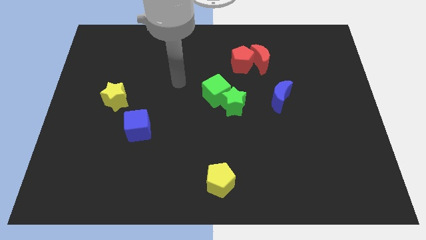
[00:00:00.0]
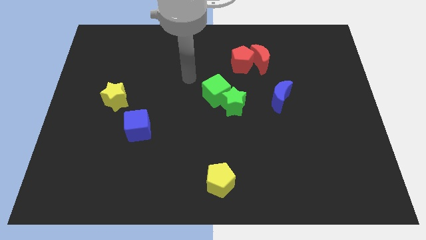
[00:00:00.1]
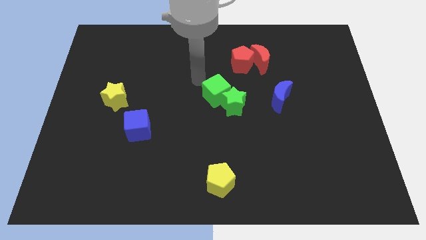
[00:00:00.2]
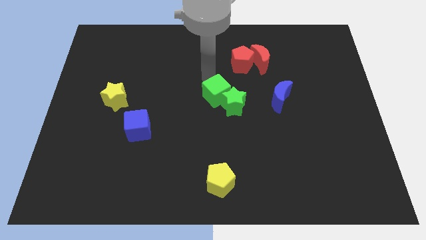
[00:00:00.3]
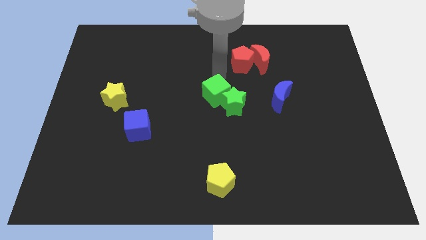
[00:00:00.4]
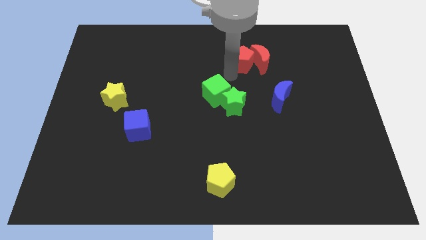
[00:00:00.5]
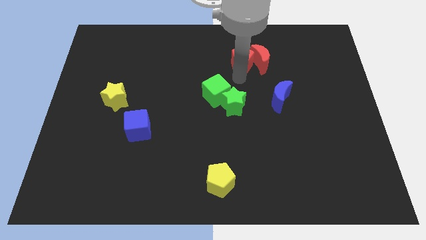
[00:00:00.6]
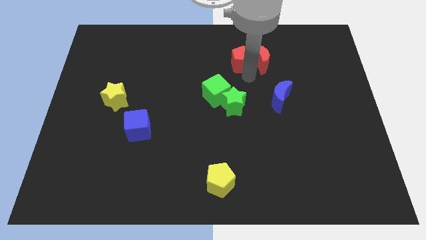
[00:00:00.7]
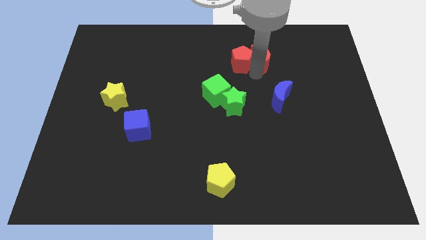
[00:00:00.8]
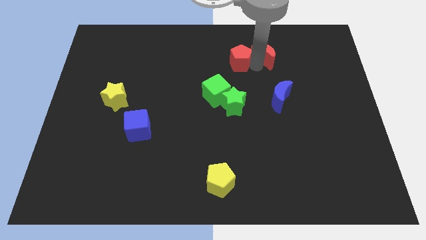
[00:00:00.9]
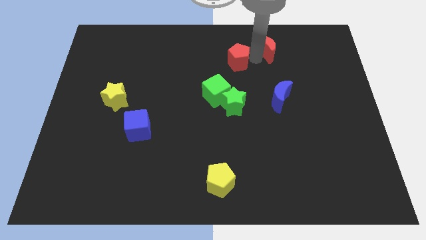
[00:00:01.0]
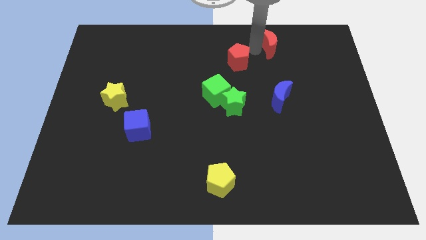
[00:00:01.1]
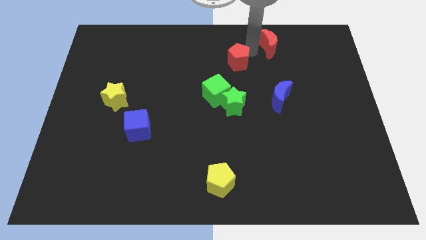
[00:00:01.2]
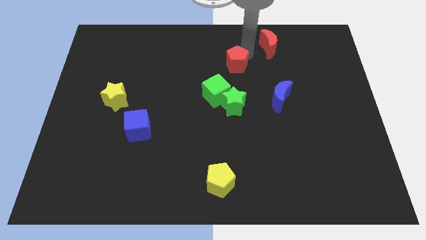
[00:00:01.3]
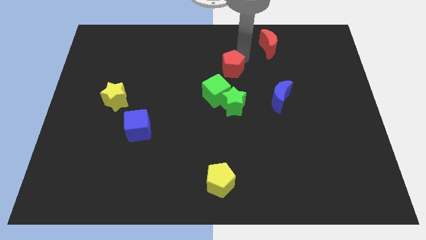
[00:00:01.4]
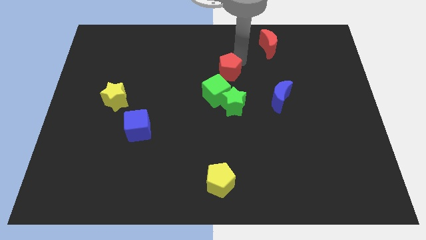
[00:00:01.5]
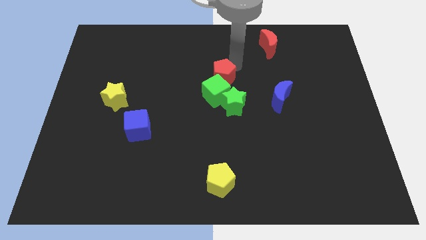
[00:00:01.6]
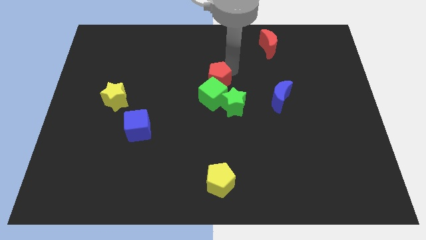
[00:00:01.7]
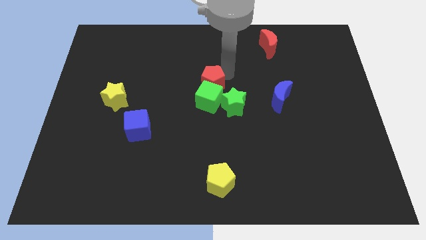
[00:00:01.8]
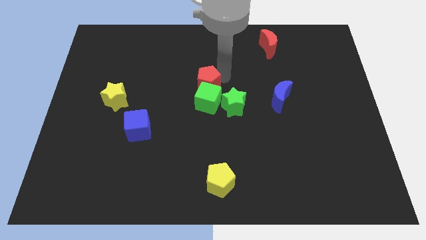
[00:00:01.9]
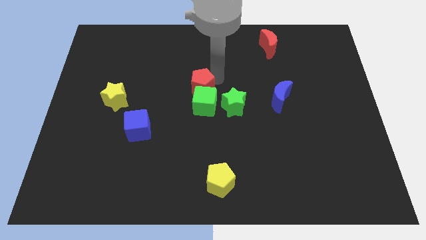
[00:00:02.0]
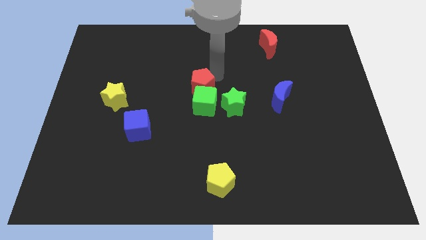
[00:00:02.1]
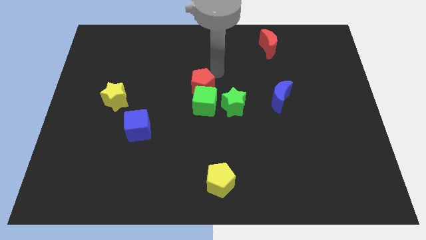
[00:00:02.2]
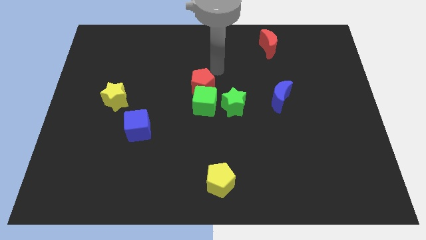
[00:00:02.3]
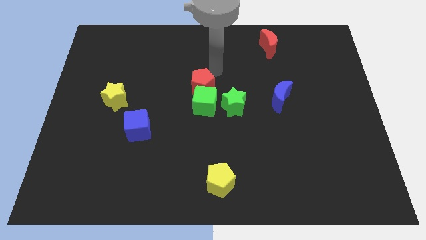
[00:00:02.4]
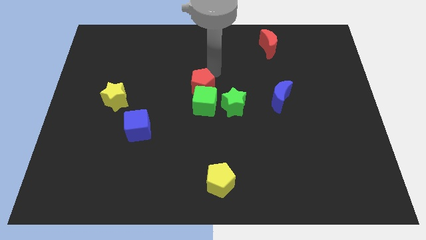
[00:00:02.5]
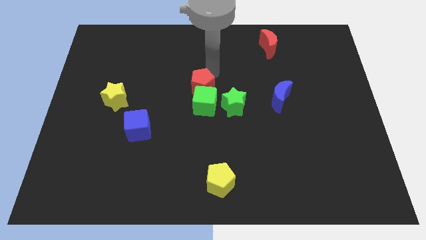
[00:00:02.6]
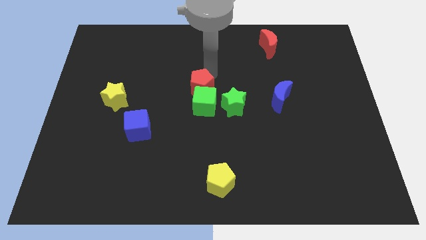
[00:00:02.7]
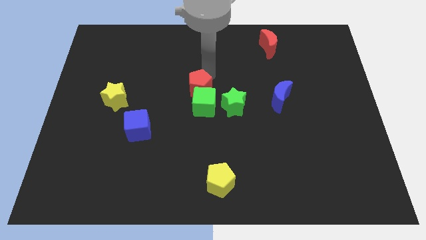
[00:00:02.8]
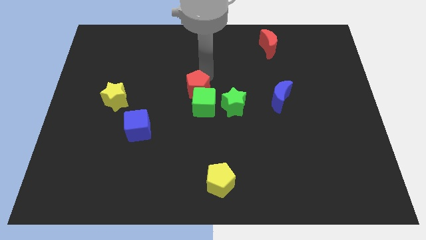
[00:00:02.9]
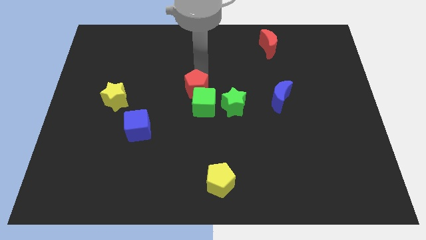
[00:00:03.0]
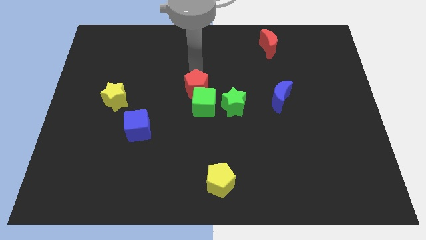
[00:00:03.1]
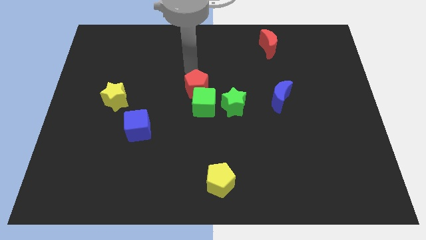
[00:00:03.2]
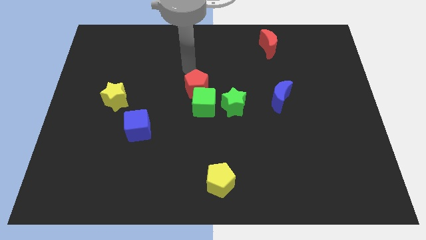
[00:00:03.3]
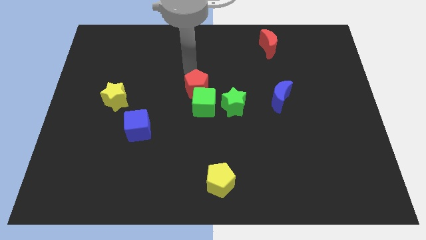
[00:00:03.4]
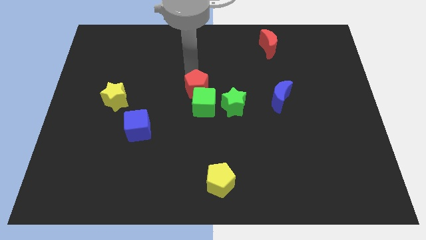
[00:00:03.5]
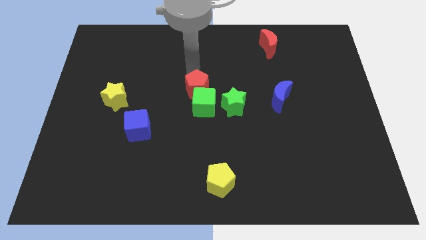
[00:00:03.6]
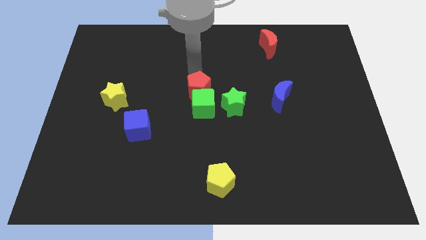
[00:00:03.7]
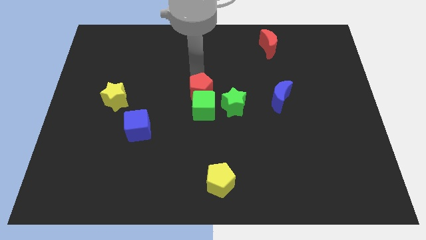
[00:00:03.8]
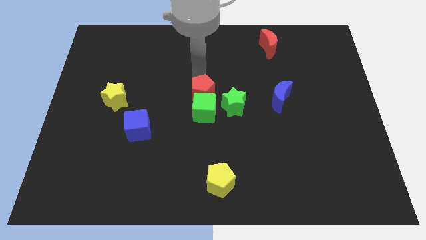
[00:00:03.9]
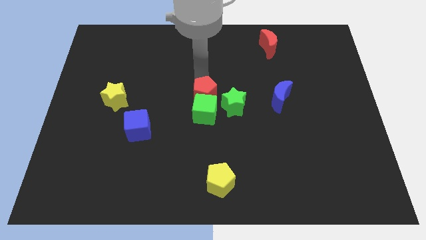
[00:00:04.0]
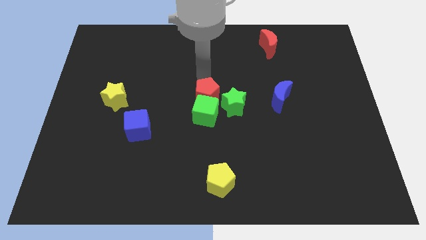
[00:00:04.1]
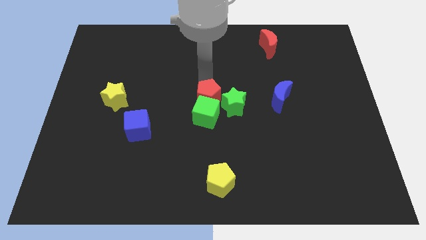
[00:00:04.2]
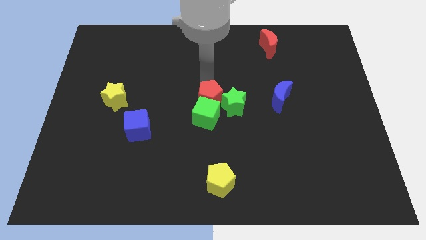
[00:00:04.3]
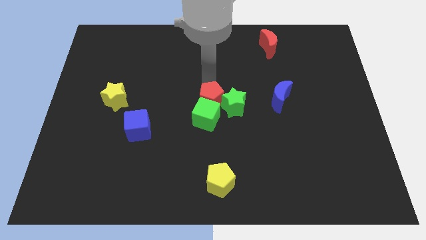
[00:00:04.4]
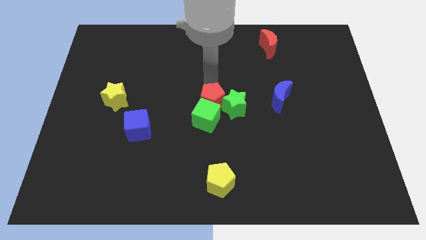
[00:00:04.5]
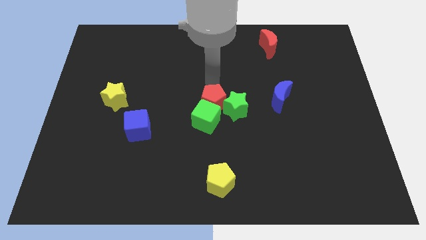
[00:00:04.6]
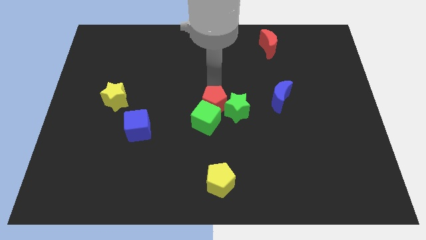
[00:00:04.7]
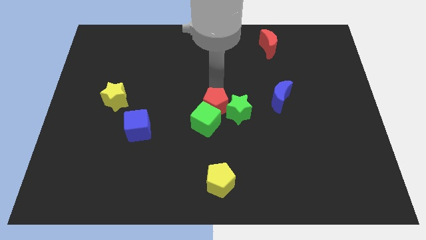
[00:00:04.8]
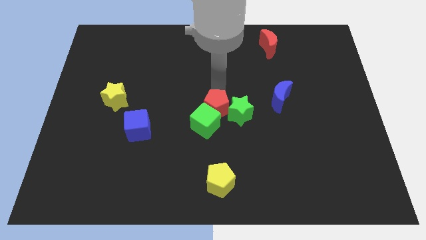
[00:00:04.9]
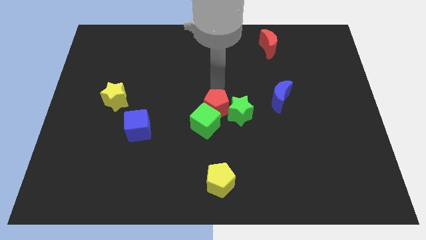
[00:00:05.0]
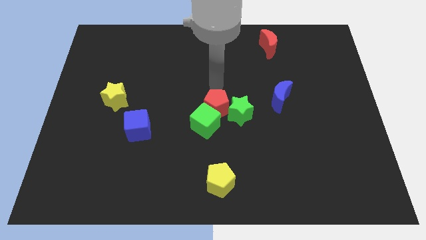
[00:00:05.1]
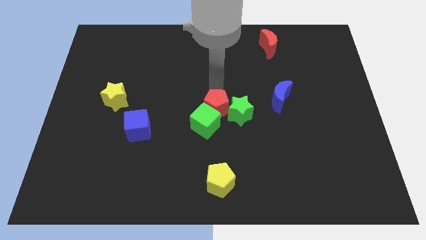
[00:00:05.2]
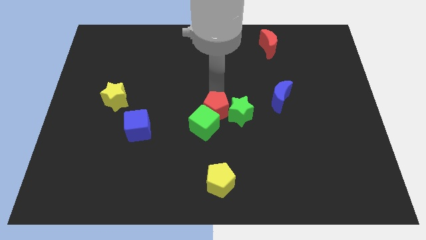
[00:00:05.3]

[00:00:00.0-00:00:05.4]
move the red pentagon diagonally down and to the left of the green star
